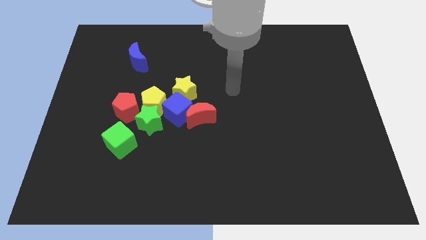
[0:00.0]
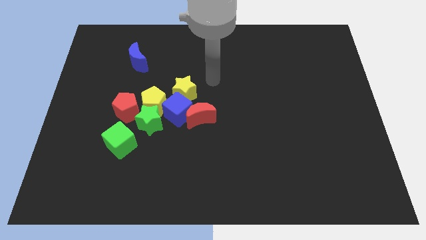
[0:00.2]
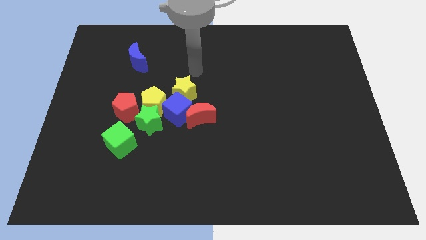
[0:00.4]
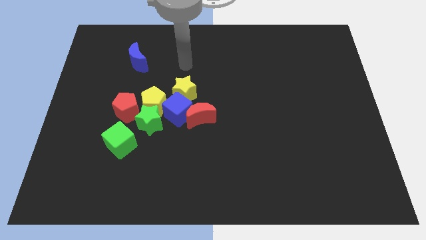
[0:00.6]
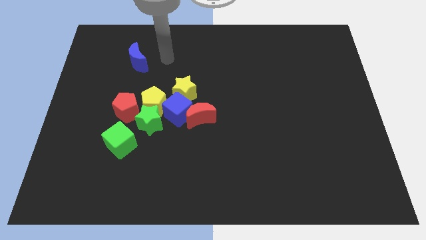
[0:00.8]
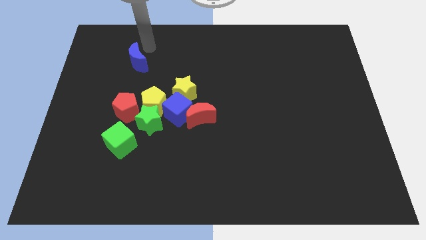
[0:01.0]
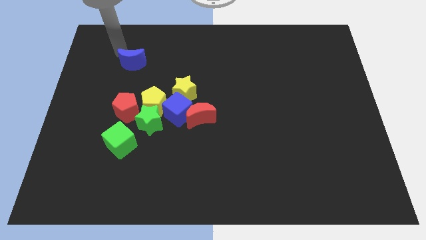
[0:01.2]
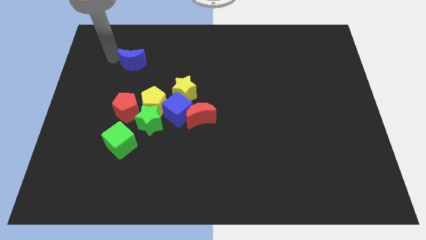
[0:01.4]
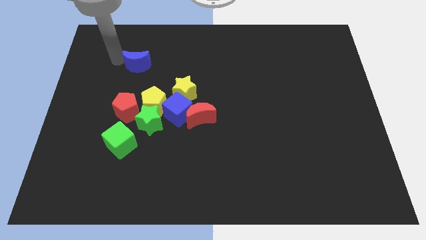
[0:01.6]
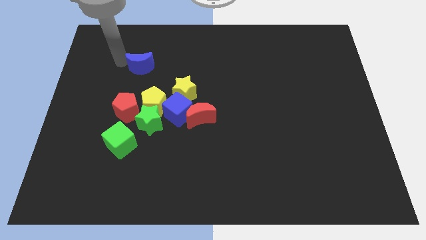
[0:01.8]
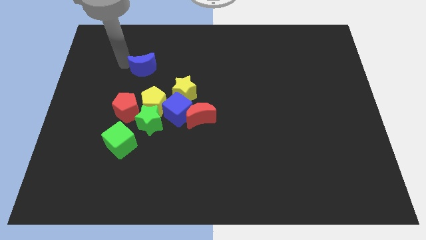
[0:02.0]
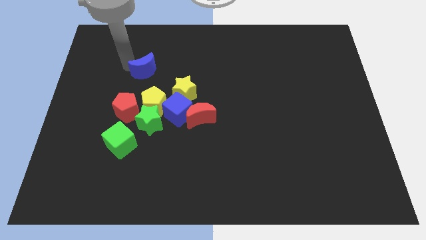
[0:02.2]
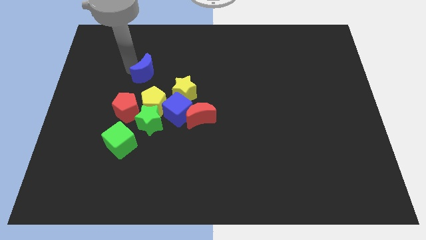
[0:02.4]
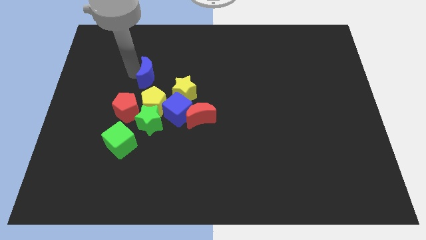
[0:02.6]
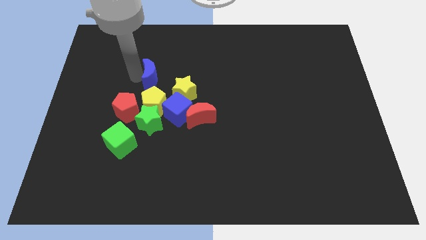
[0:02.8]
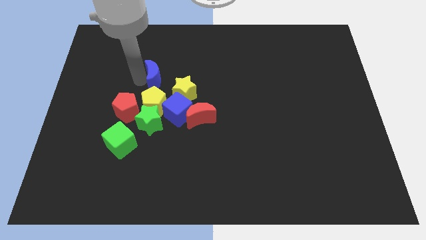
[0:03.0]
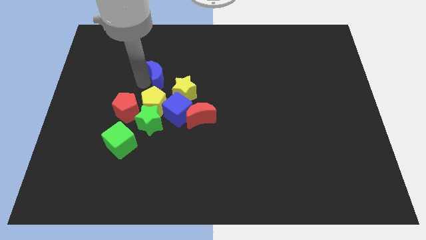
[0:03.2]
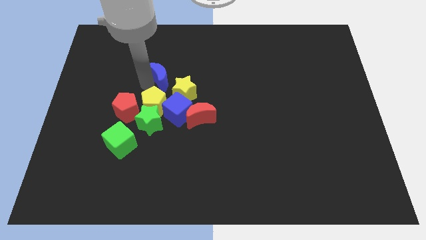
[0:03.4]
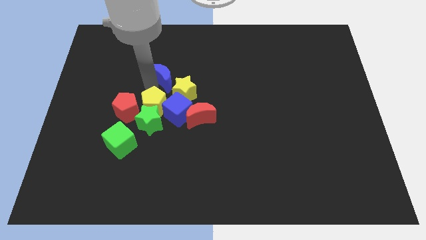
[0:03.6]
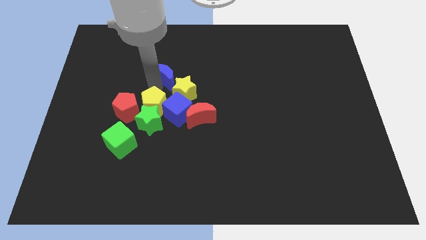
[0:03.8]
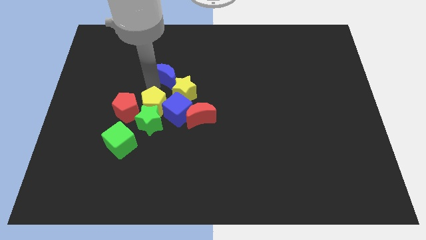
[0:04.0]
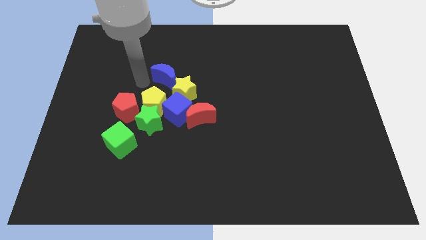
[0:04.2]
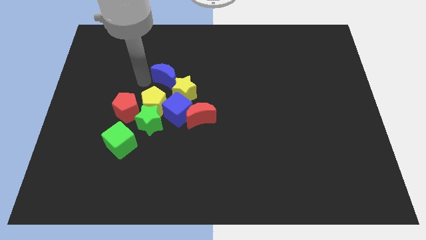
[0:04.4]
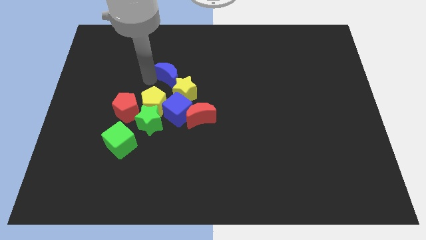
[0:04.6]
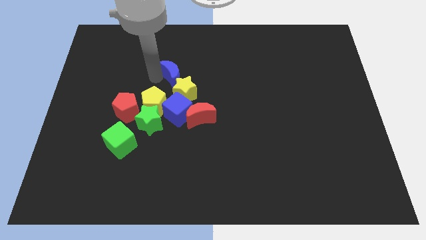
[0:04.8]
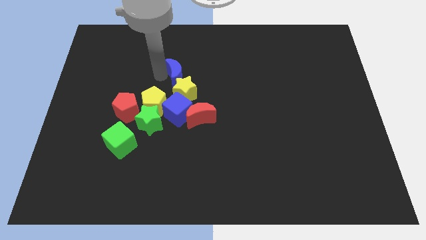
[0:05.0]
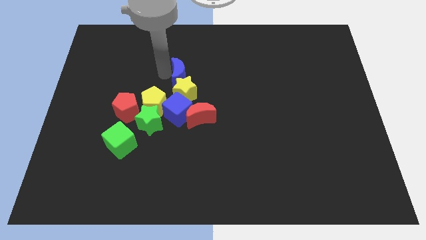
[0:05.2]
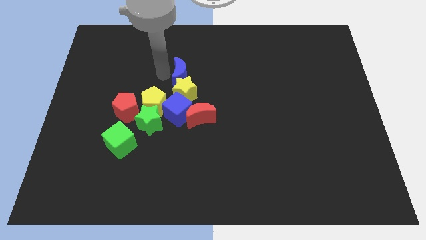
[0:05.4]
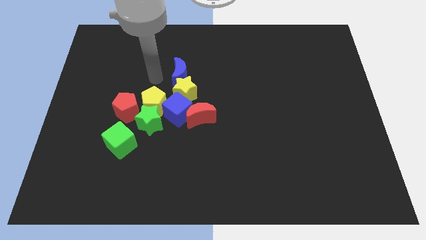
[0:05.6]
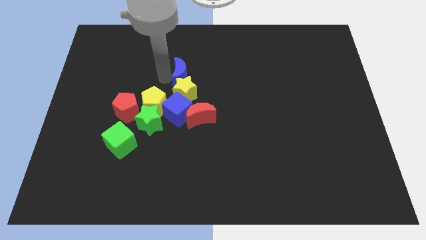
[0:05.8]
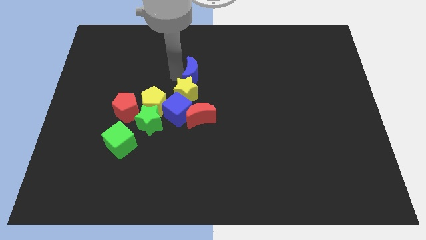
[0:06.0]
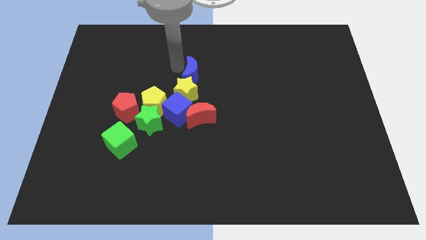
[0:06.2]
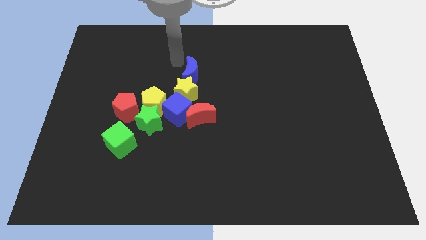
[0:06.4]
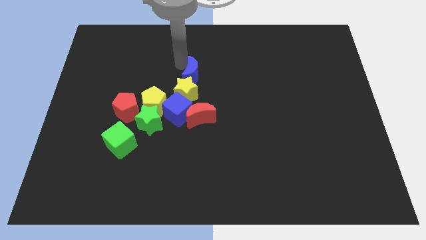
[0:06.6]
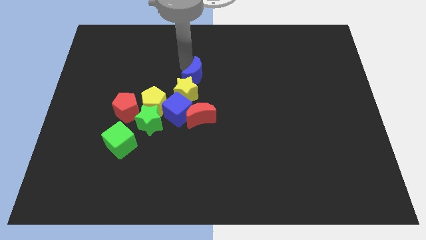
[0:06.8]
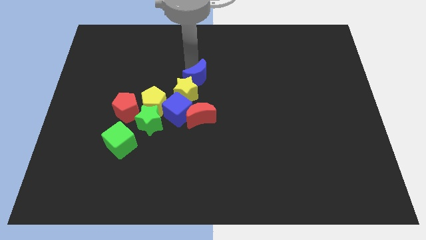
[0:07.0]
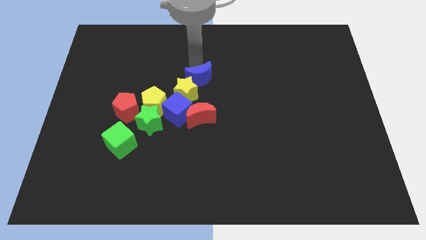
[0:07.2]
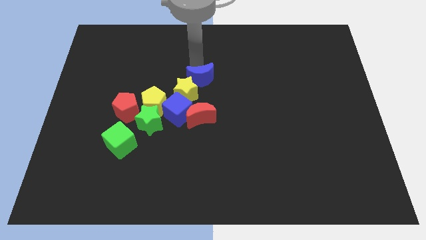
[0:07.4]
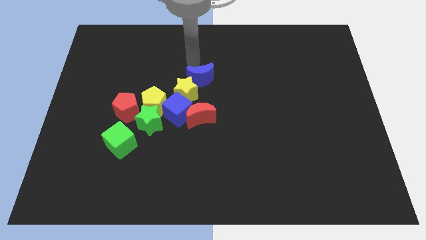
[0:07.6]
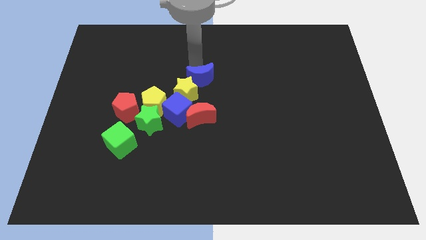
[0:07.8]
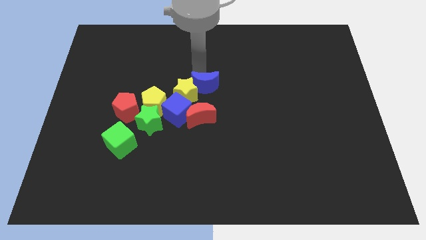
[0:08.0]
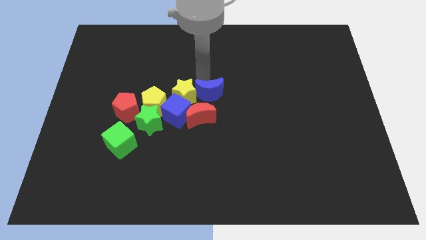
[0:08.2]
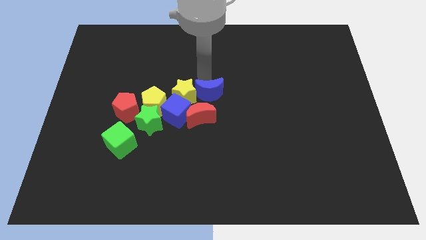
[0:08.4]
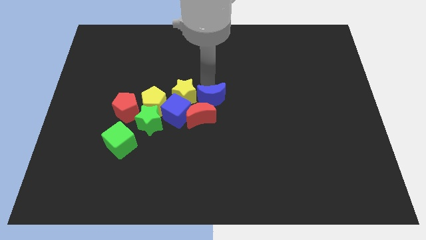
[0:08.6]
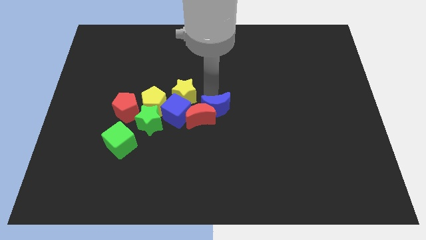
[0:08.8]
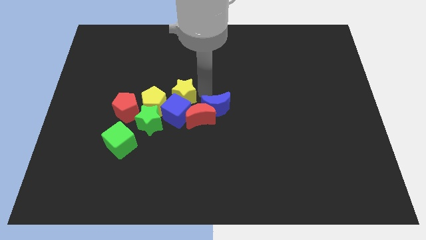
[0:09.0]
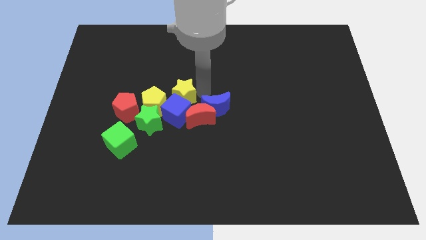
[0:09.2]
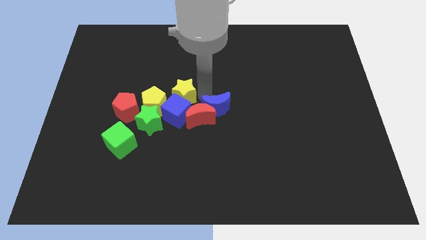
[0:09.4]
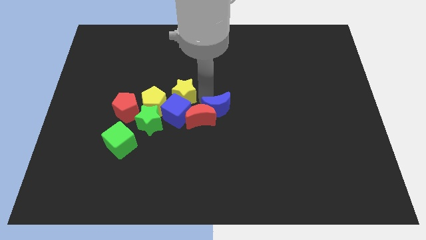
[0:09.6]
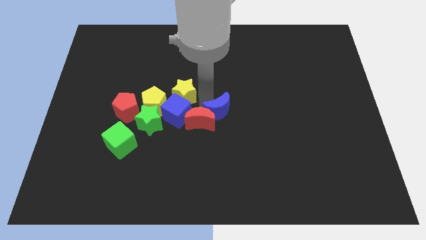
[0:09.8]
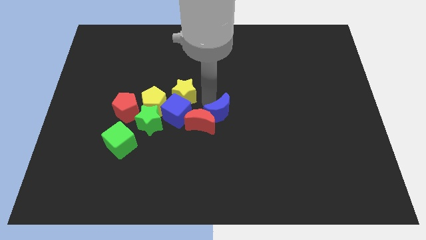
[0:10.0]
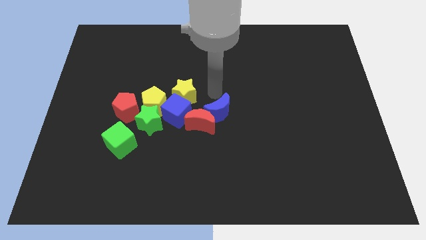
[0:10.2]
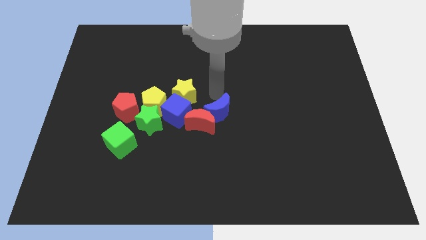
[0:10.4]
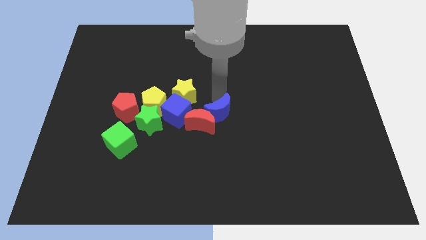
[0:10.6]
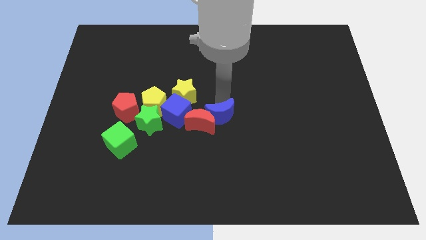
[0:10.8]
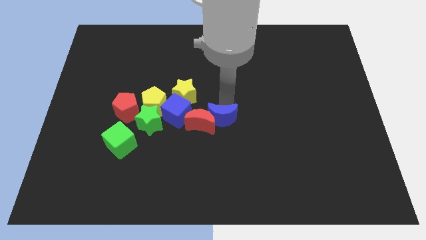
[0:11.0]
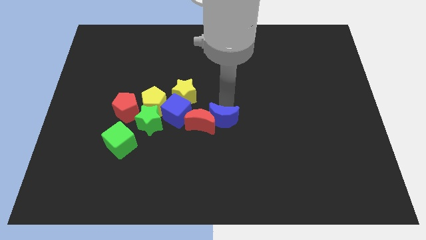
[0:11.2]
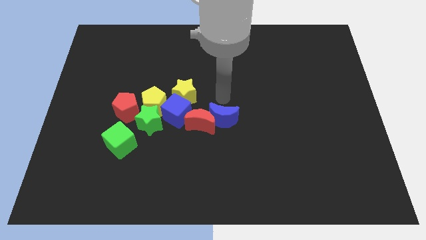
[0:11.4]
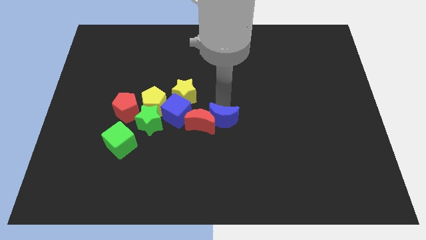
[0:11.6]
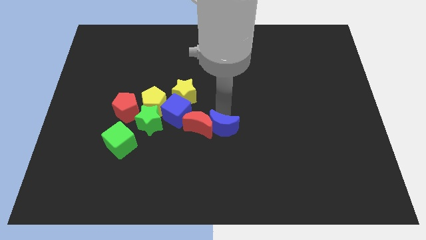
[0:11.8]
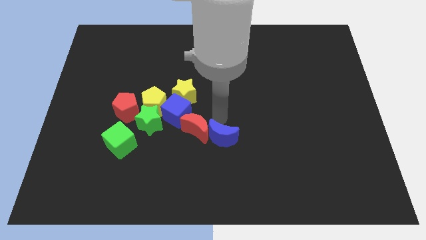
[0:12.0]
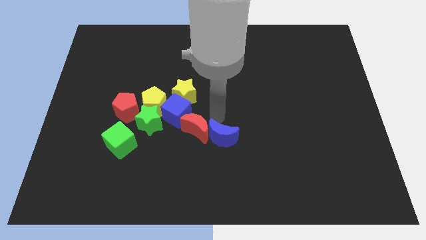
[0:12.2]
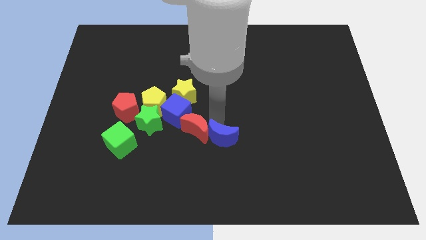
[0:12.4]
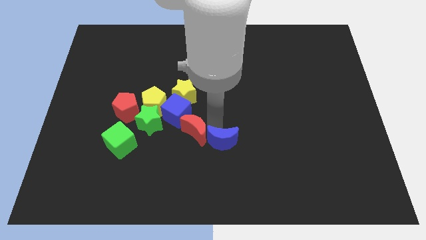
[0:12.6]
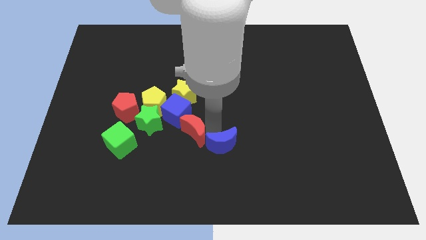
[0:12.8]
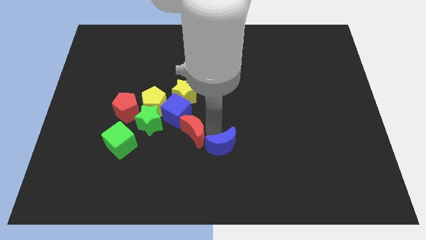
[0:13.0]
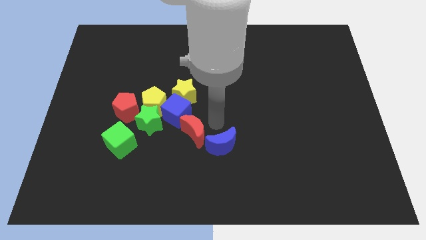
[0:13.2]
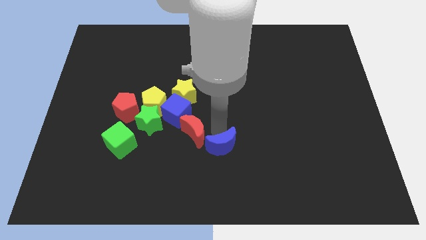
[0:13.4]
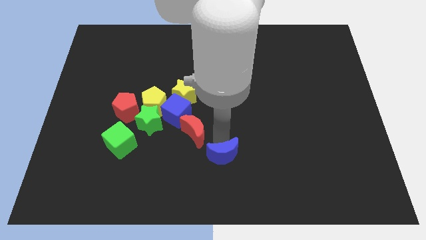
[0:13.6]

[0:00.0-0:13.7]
slide the blue moon to the bottom side
